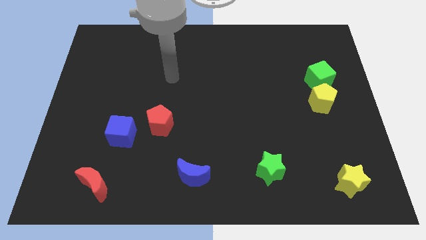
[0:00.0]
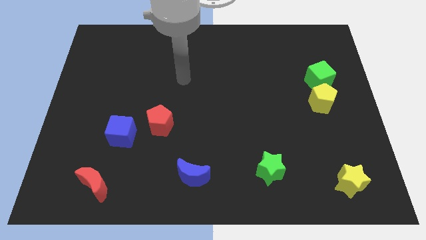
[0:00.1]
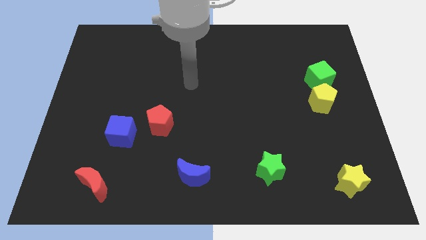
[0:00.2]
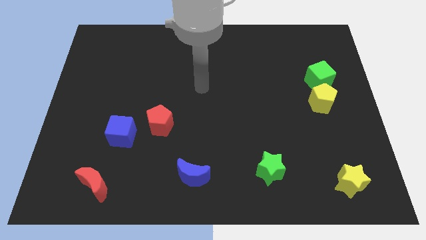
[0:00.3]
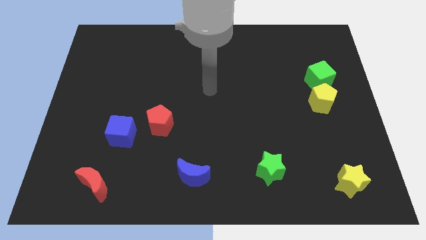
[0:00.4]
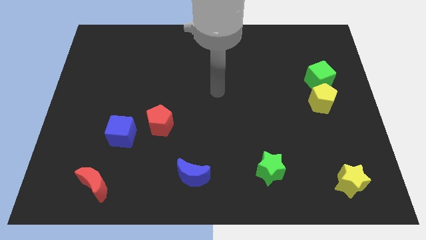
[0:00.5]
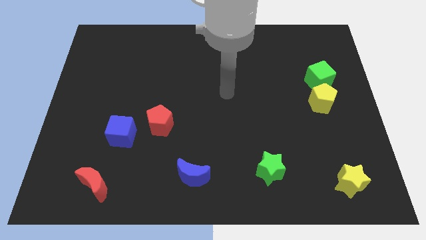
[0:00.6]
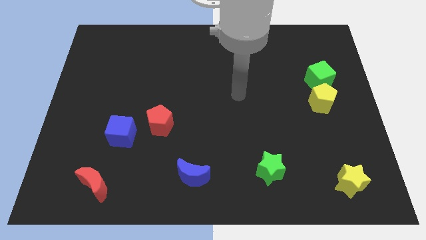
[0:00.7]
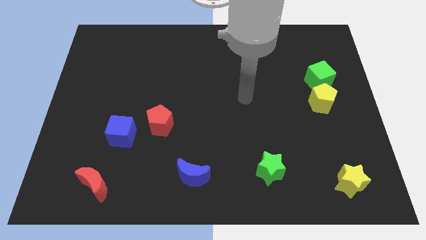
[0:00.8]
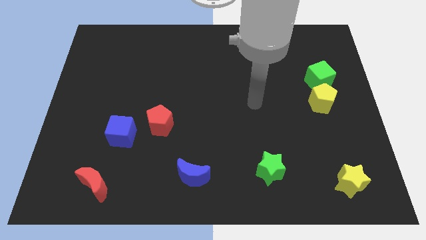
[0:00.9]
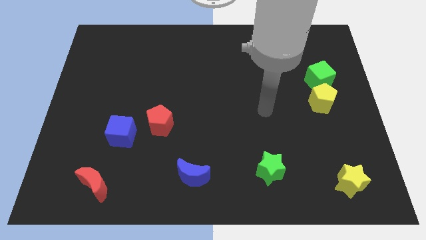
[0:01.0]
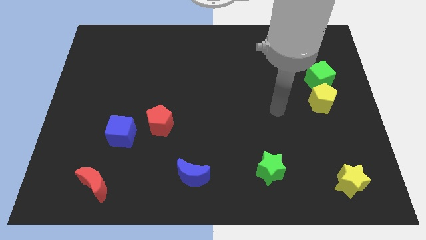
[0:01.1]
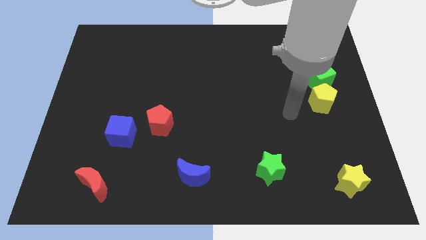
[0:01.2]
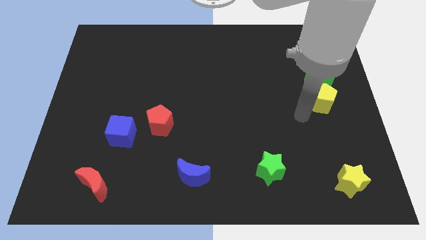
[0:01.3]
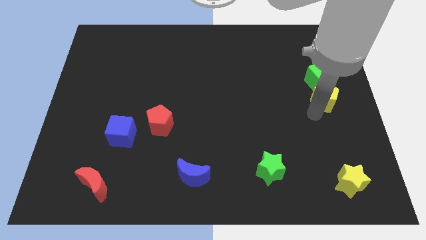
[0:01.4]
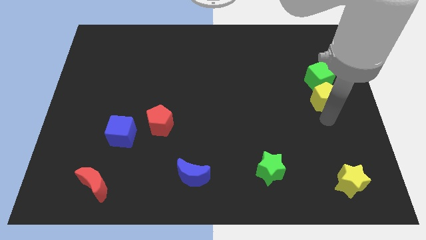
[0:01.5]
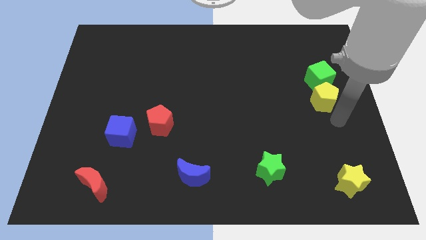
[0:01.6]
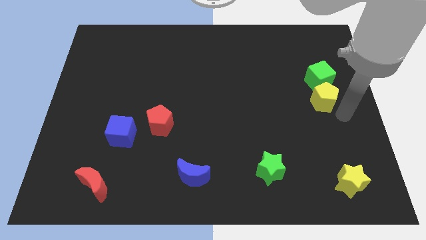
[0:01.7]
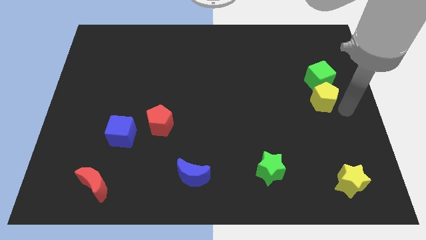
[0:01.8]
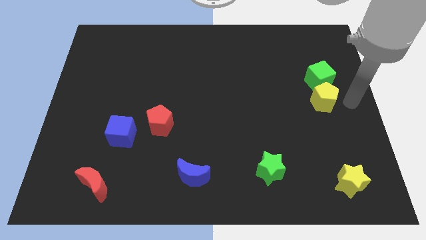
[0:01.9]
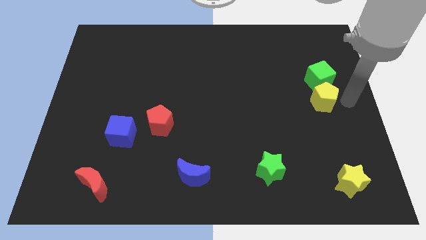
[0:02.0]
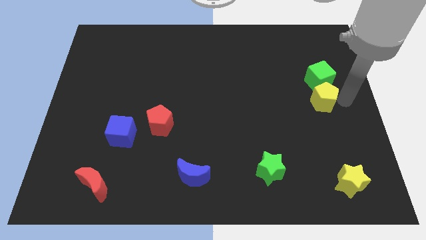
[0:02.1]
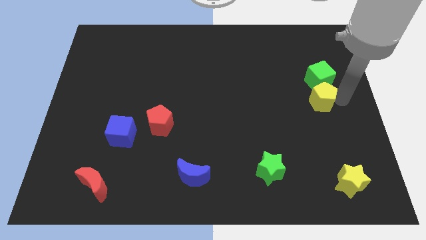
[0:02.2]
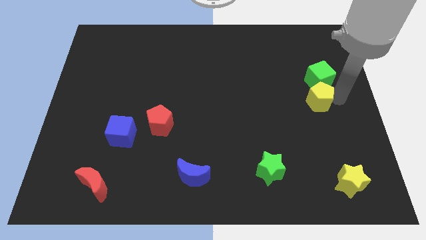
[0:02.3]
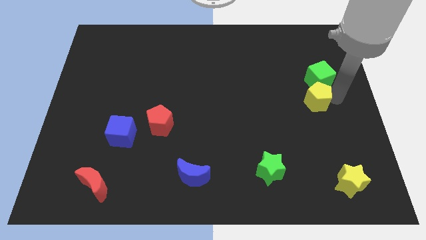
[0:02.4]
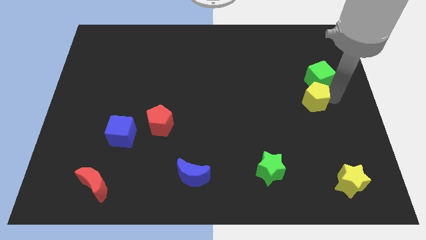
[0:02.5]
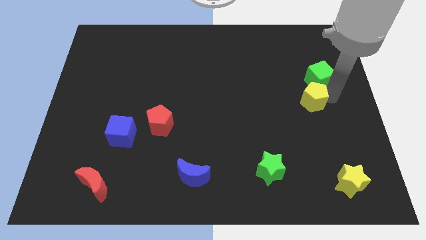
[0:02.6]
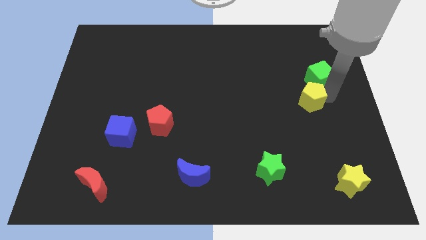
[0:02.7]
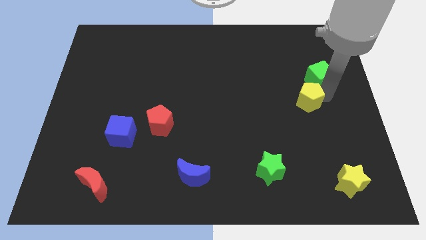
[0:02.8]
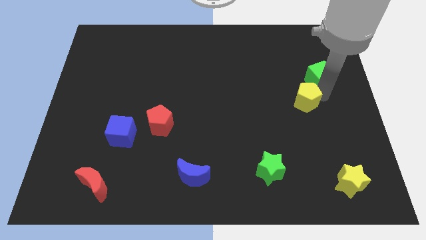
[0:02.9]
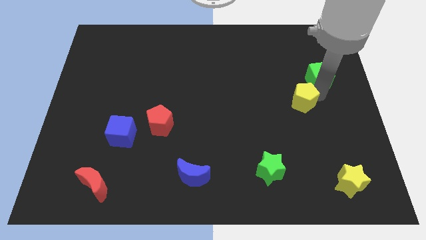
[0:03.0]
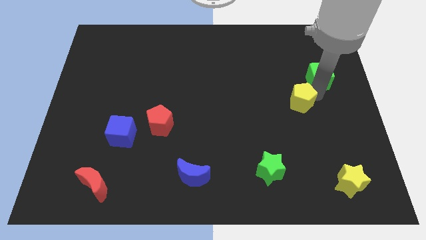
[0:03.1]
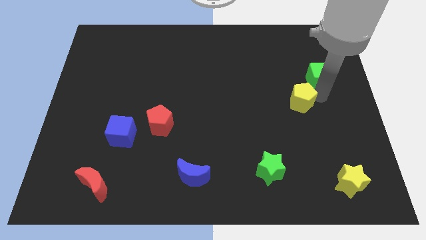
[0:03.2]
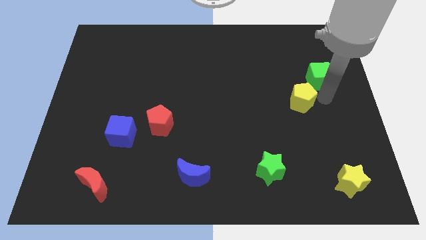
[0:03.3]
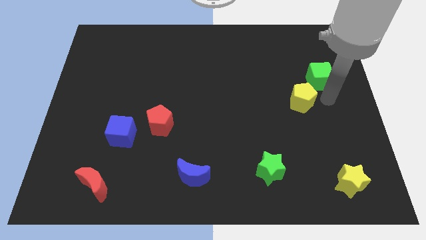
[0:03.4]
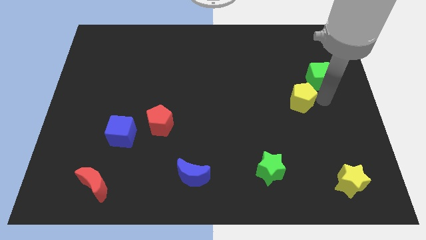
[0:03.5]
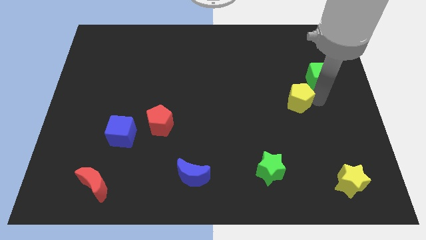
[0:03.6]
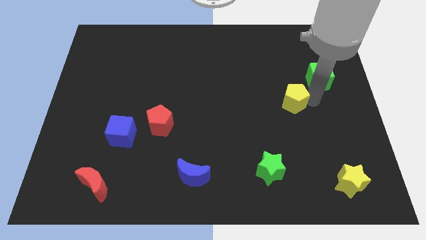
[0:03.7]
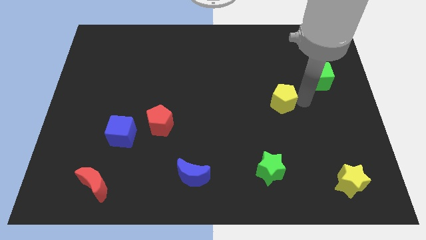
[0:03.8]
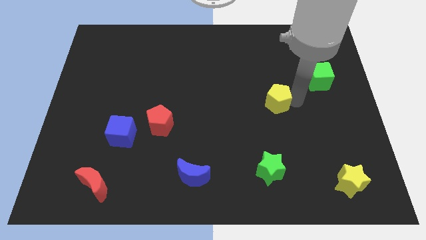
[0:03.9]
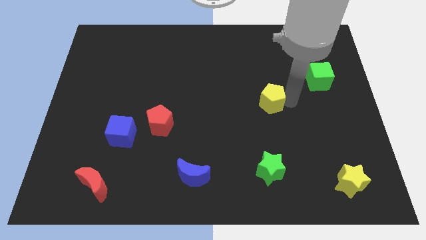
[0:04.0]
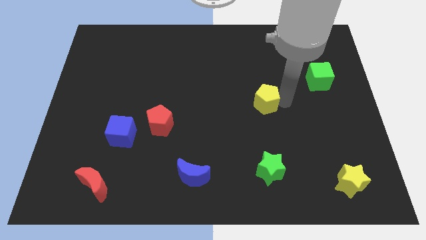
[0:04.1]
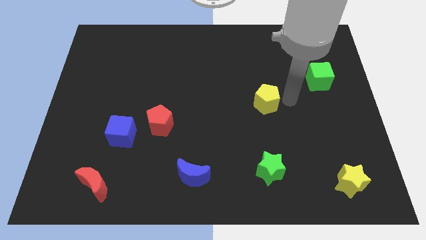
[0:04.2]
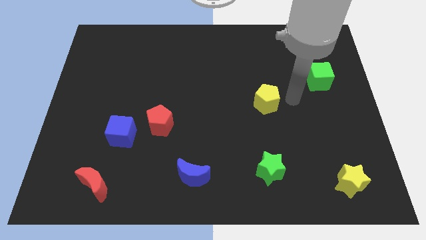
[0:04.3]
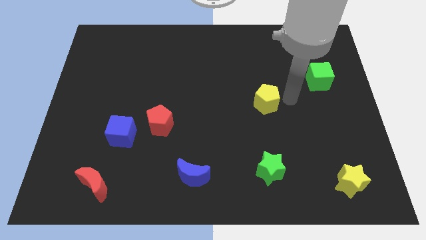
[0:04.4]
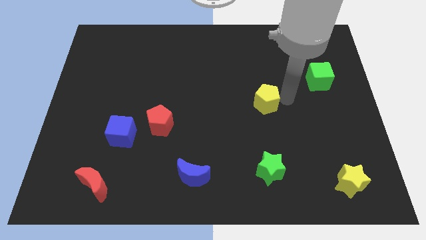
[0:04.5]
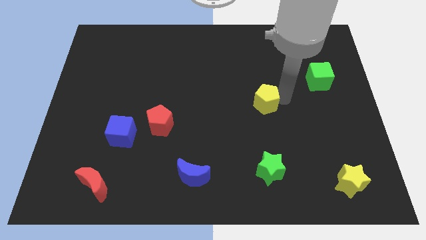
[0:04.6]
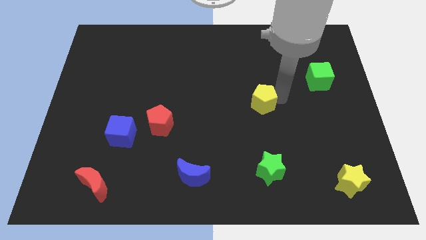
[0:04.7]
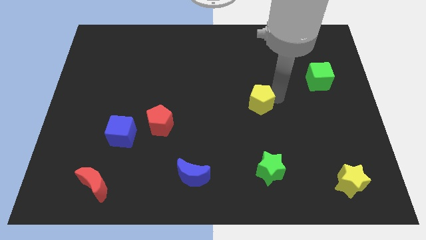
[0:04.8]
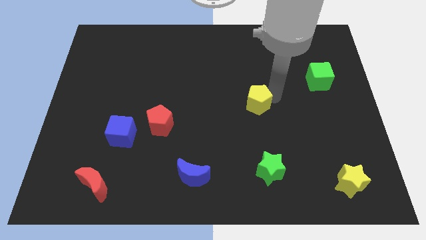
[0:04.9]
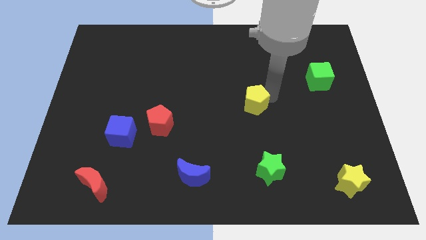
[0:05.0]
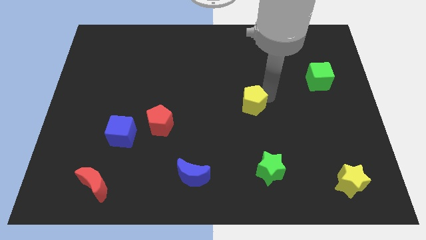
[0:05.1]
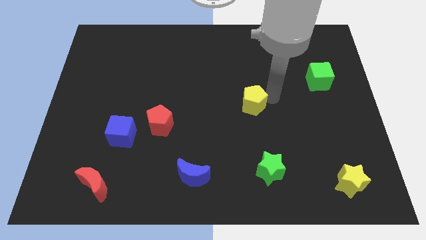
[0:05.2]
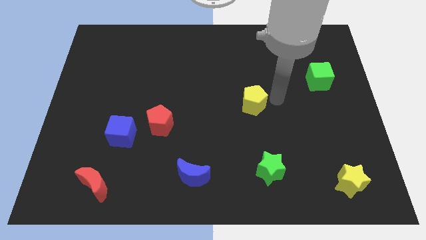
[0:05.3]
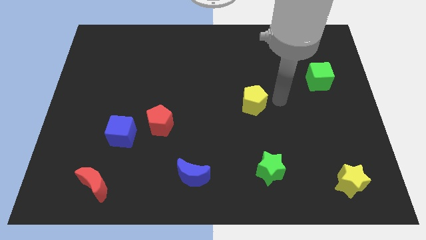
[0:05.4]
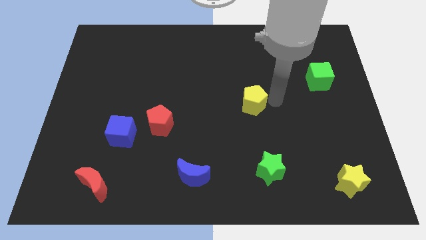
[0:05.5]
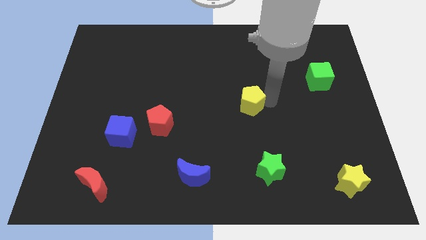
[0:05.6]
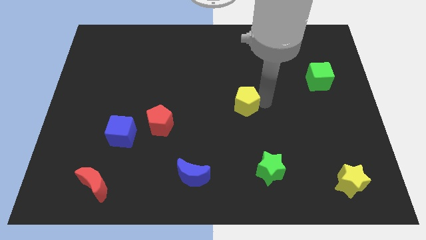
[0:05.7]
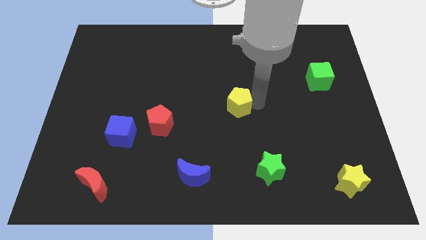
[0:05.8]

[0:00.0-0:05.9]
push the yellow pentagon to the left

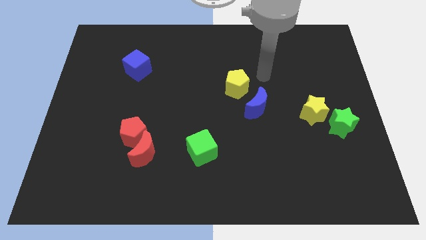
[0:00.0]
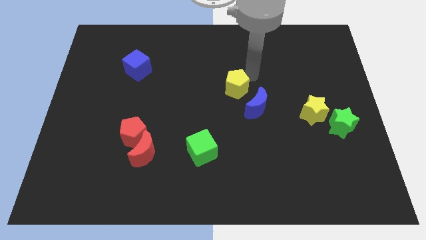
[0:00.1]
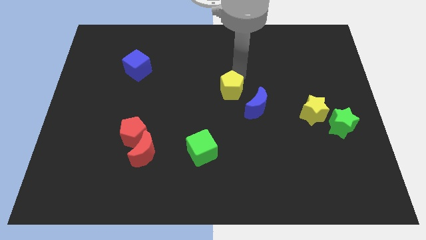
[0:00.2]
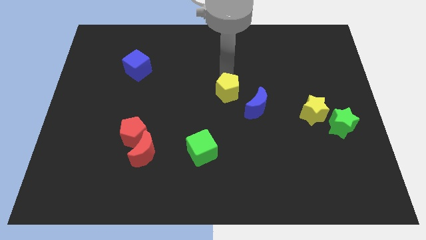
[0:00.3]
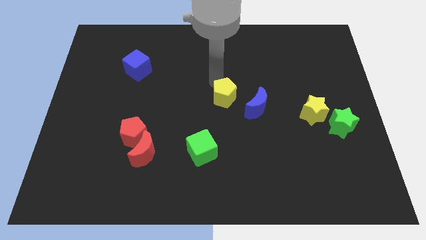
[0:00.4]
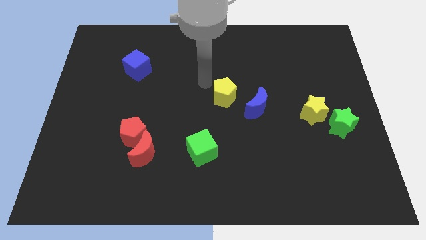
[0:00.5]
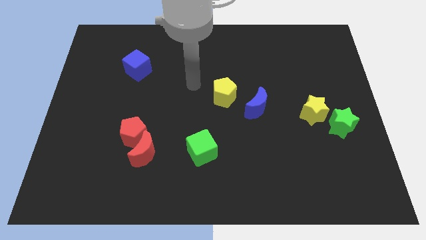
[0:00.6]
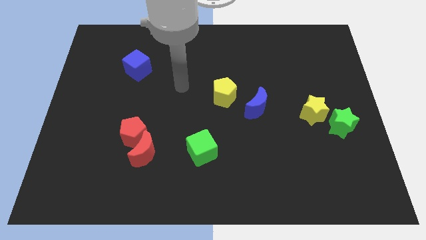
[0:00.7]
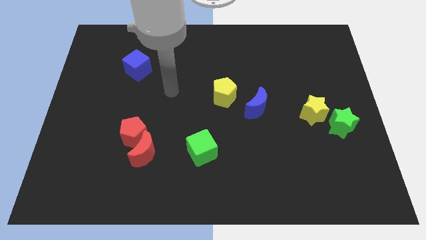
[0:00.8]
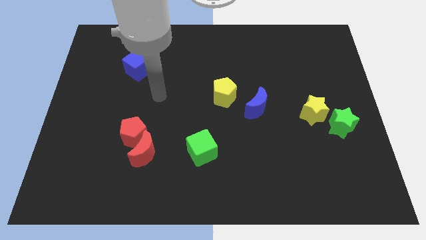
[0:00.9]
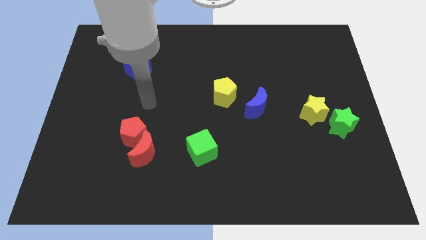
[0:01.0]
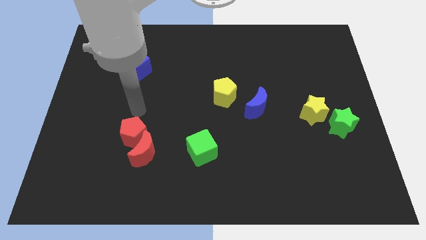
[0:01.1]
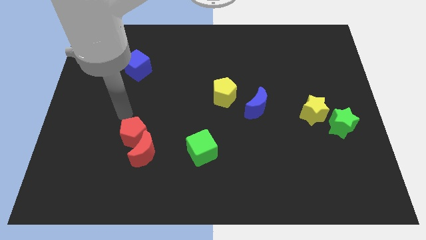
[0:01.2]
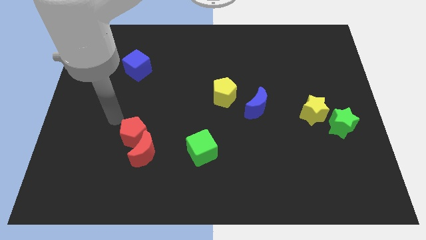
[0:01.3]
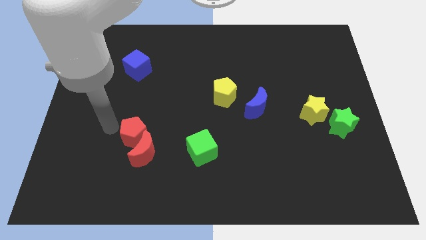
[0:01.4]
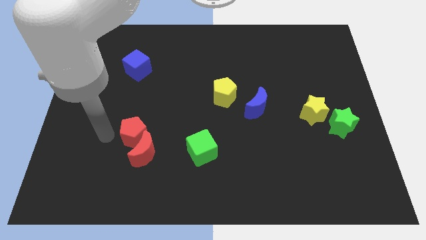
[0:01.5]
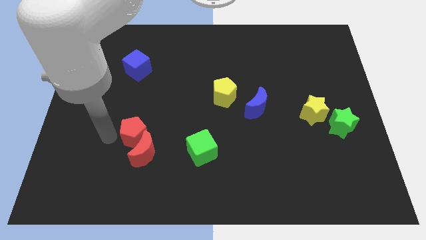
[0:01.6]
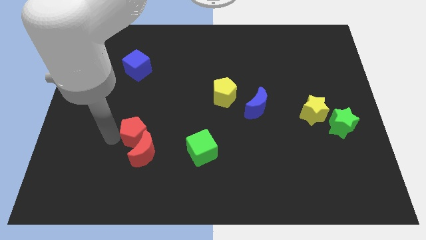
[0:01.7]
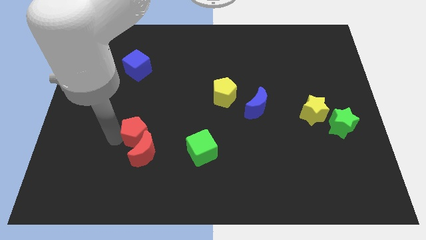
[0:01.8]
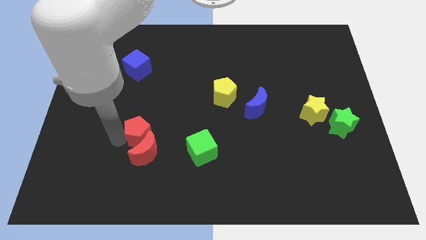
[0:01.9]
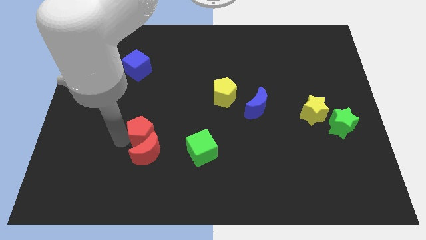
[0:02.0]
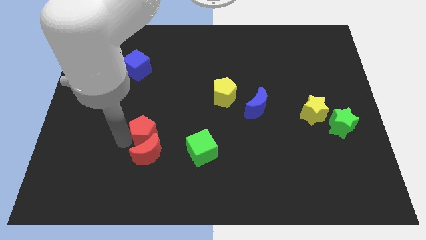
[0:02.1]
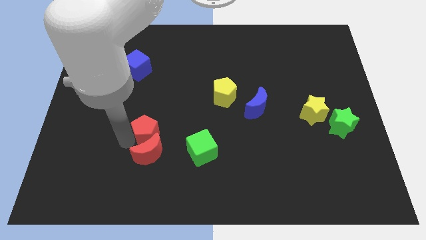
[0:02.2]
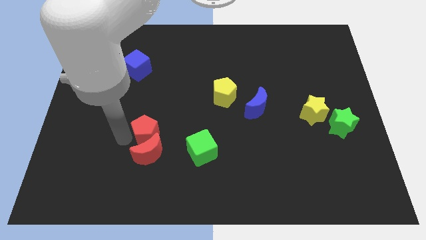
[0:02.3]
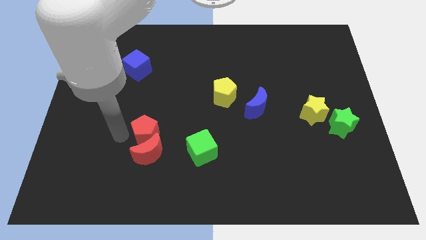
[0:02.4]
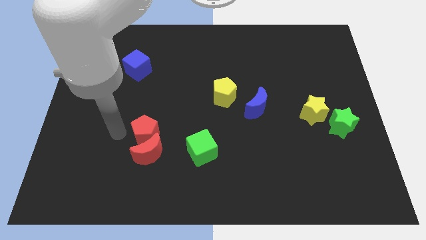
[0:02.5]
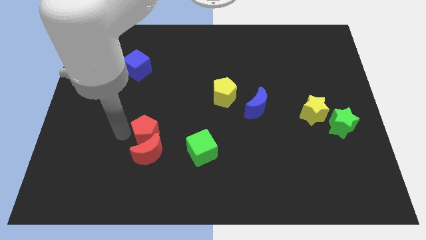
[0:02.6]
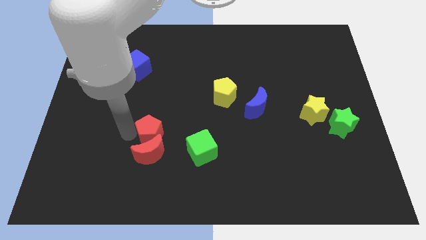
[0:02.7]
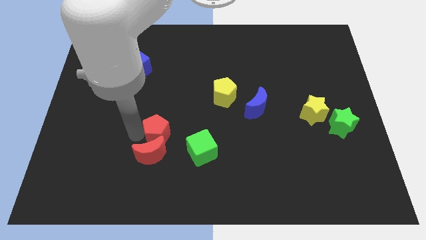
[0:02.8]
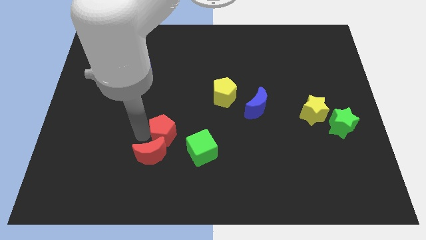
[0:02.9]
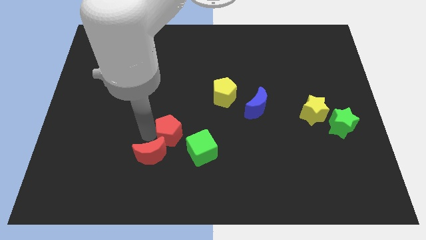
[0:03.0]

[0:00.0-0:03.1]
slightly push the red pentagon to the right
